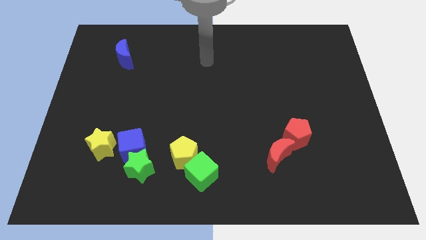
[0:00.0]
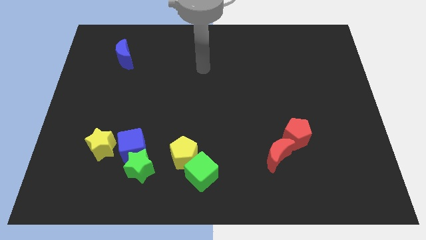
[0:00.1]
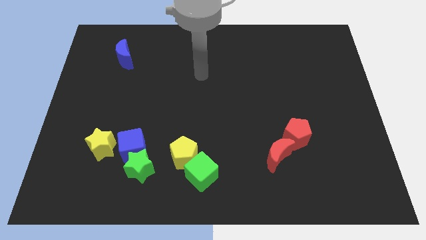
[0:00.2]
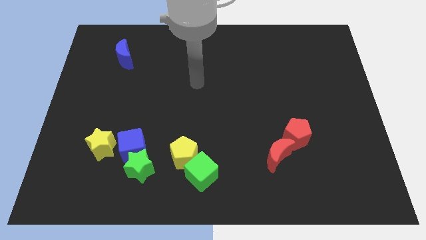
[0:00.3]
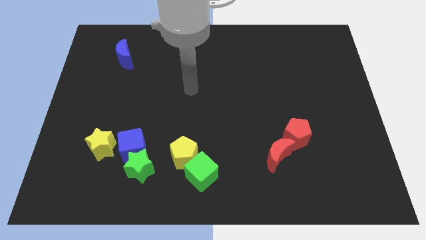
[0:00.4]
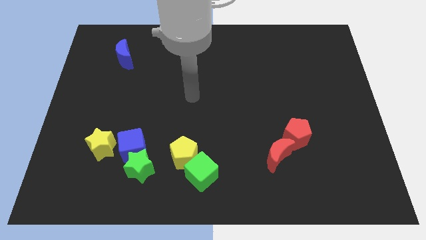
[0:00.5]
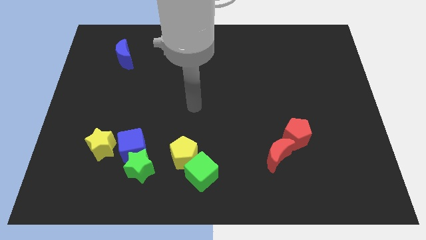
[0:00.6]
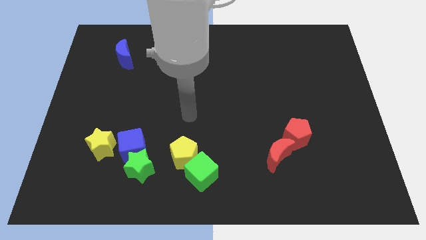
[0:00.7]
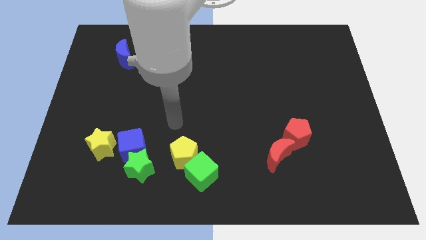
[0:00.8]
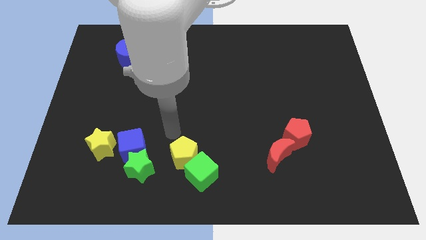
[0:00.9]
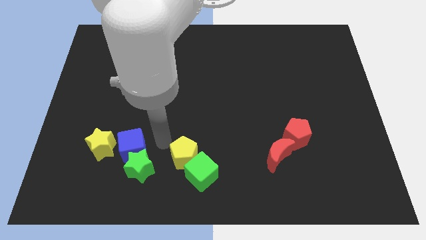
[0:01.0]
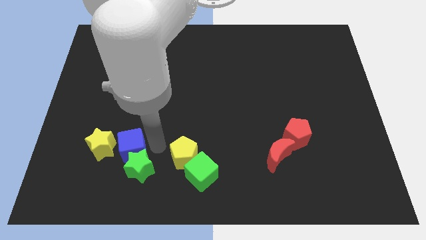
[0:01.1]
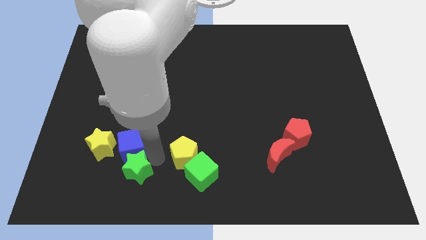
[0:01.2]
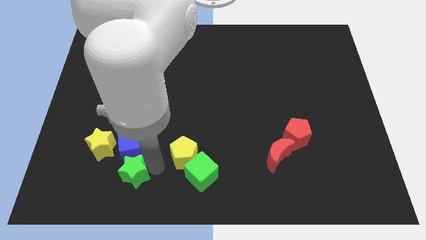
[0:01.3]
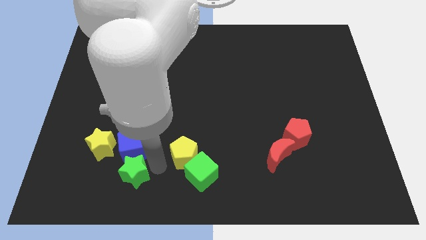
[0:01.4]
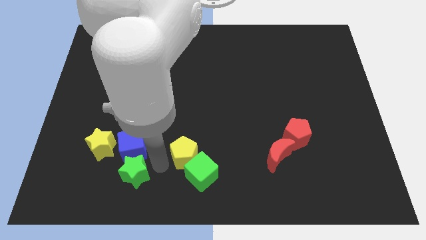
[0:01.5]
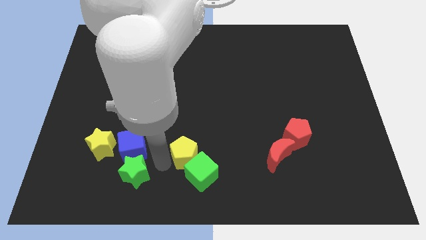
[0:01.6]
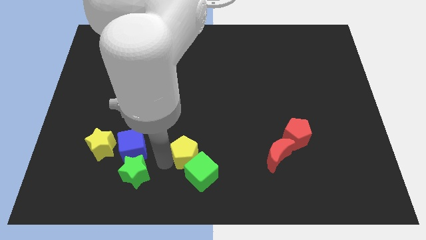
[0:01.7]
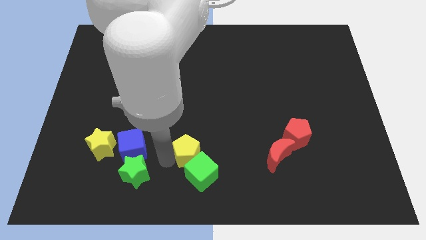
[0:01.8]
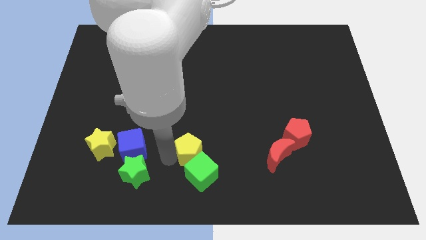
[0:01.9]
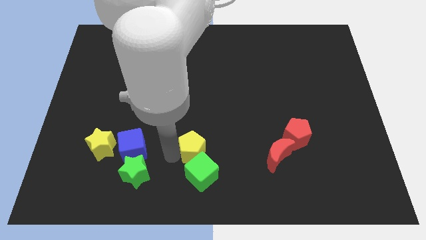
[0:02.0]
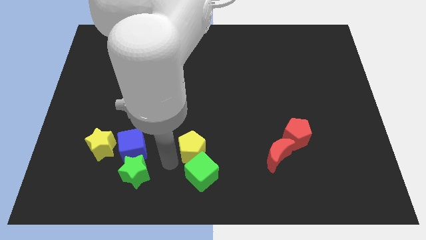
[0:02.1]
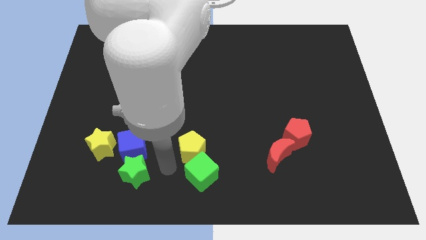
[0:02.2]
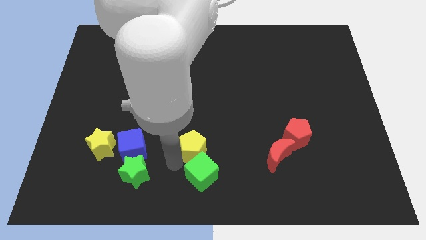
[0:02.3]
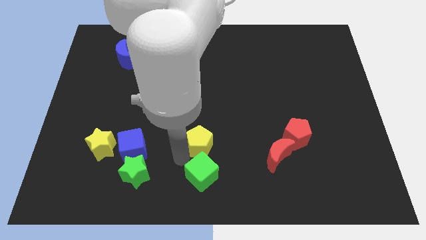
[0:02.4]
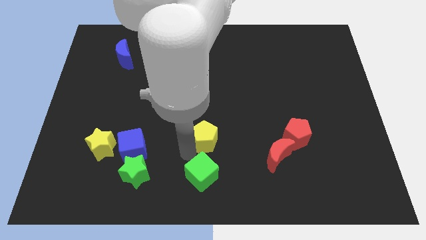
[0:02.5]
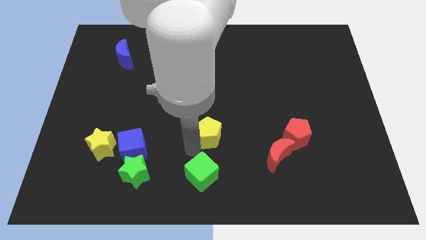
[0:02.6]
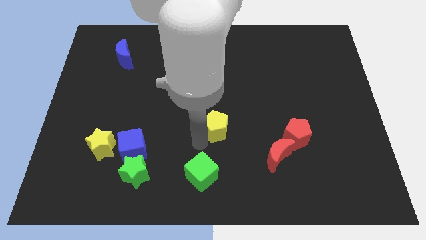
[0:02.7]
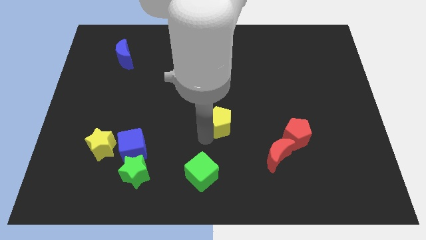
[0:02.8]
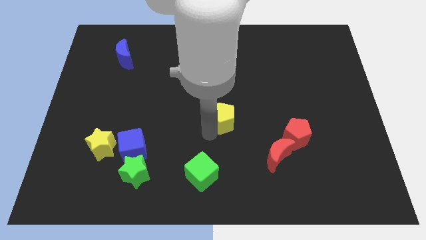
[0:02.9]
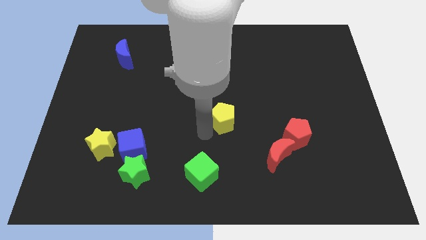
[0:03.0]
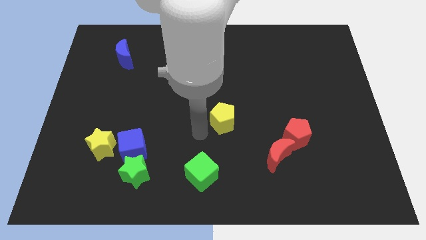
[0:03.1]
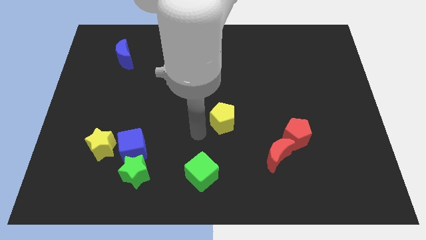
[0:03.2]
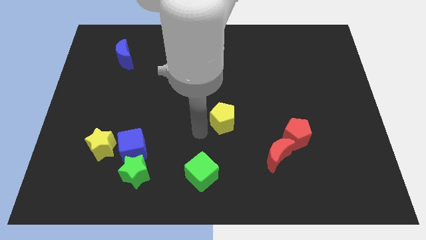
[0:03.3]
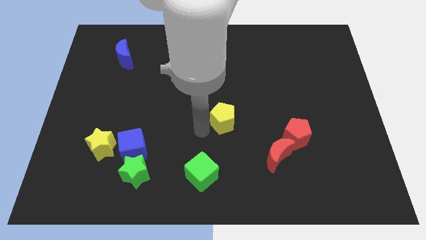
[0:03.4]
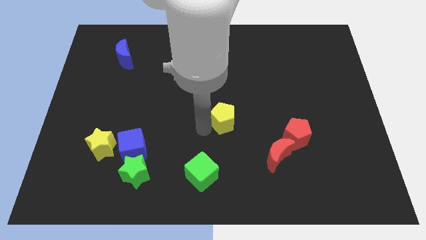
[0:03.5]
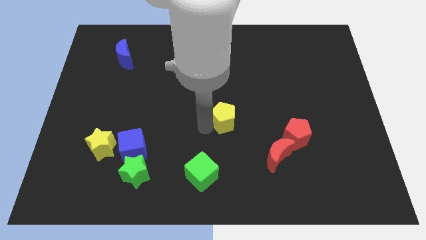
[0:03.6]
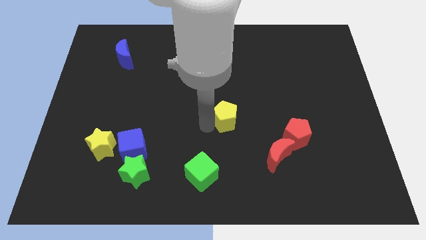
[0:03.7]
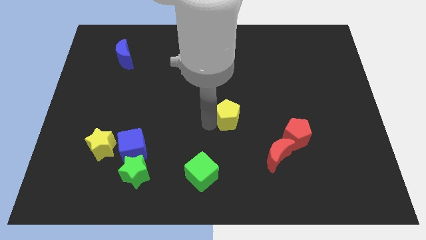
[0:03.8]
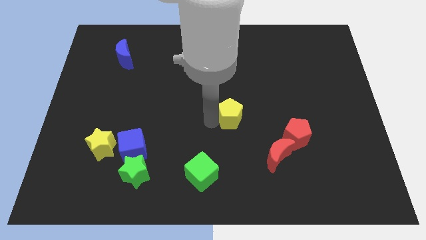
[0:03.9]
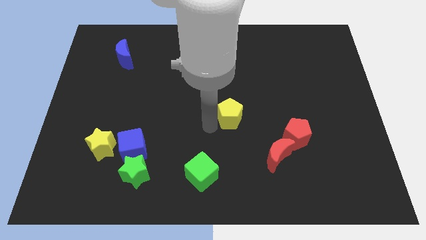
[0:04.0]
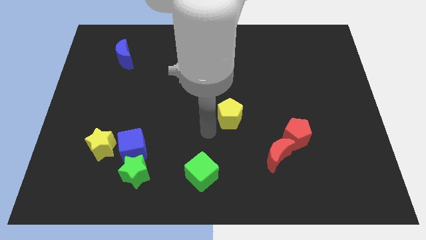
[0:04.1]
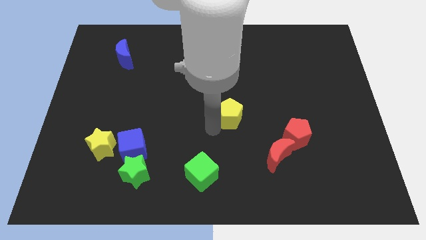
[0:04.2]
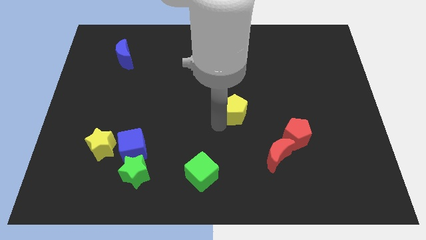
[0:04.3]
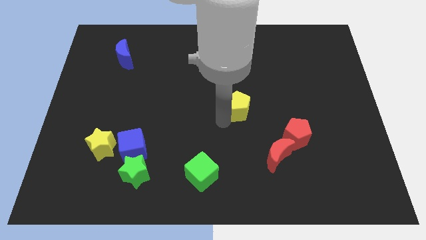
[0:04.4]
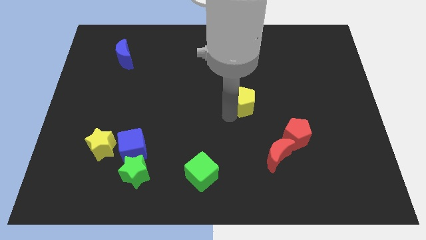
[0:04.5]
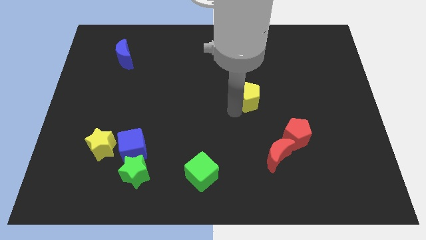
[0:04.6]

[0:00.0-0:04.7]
push the yellow pentagon up and then right

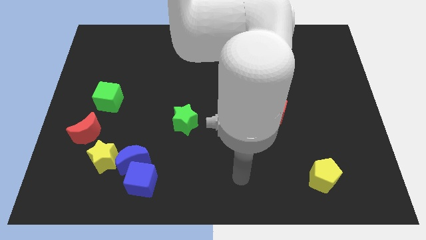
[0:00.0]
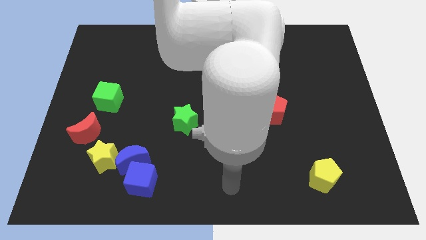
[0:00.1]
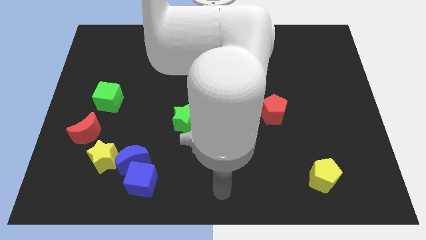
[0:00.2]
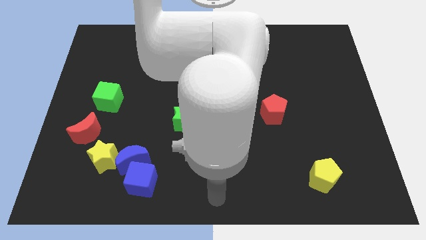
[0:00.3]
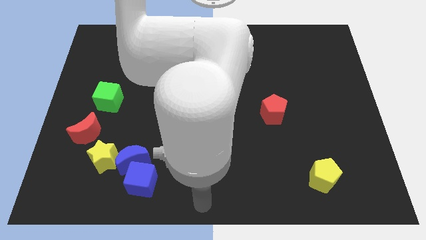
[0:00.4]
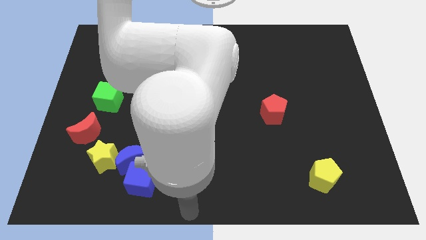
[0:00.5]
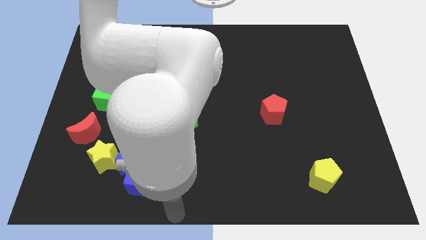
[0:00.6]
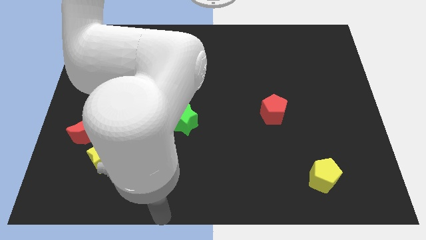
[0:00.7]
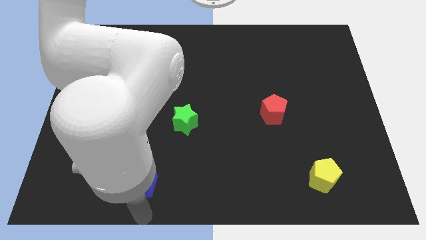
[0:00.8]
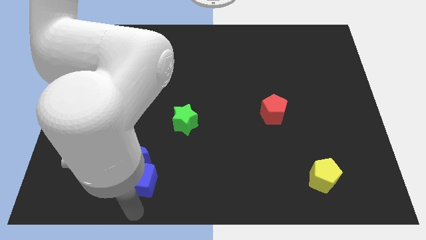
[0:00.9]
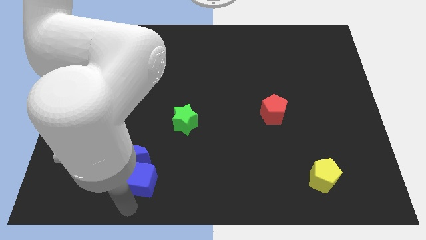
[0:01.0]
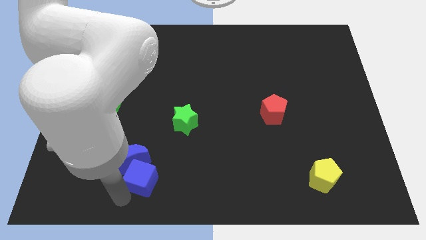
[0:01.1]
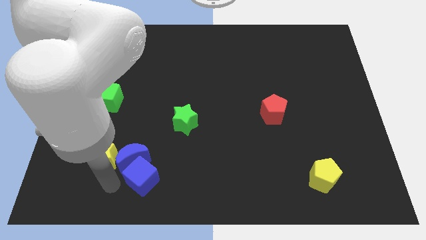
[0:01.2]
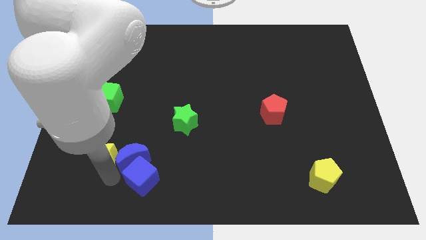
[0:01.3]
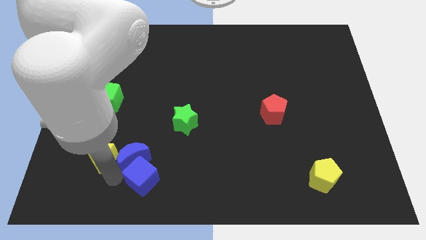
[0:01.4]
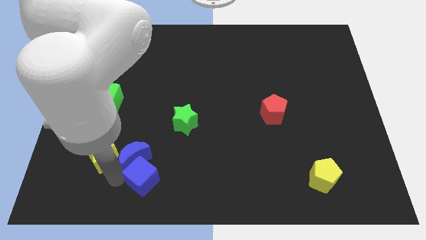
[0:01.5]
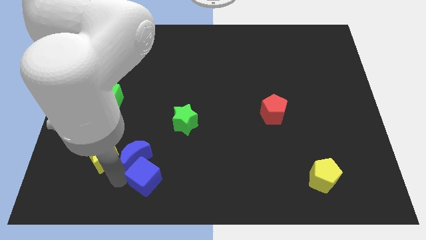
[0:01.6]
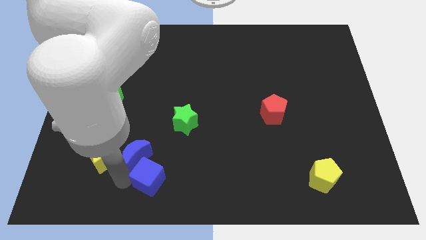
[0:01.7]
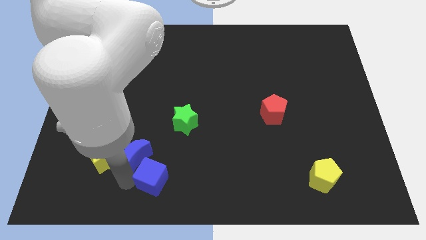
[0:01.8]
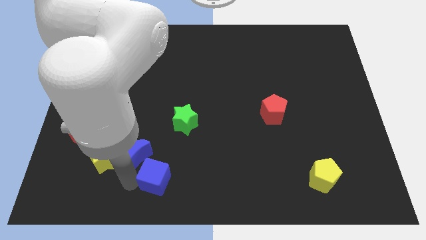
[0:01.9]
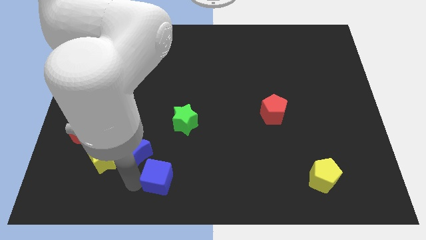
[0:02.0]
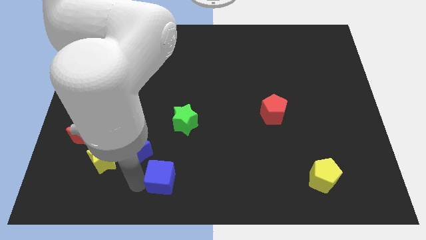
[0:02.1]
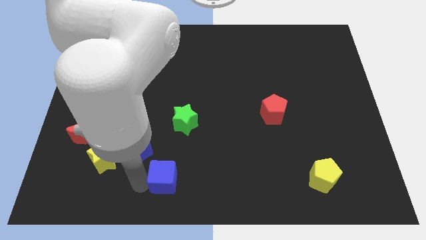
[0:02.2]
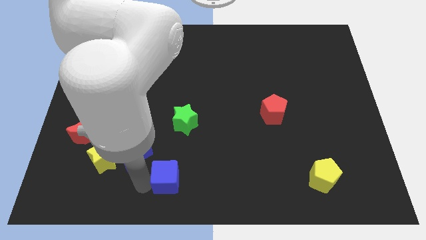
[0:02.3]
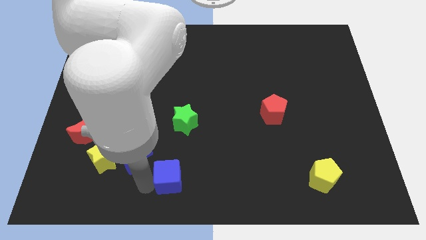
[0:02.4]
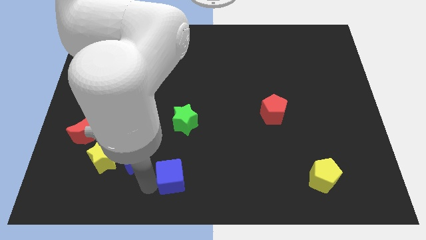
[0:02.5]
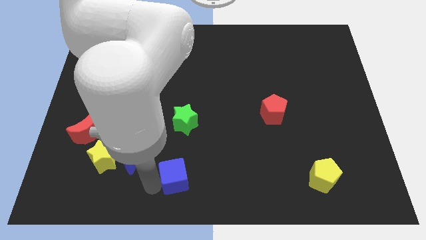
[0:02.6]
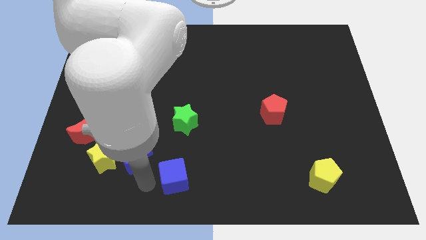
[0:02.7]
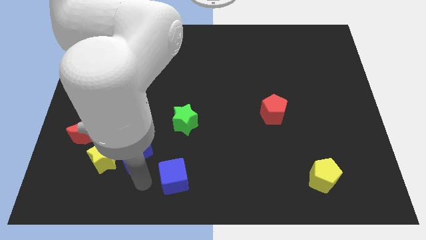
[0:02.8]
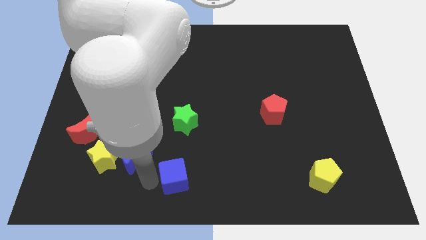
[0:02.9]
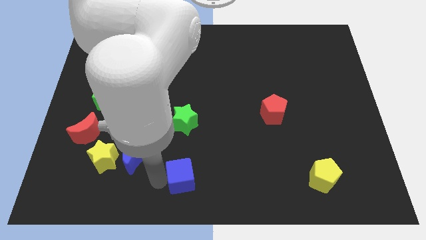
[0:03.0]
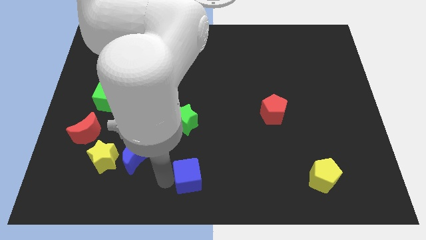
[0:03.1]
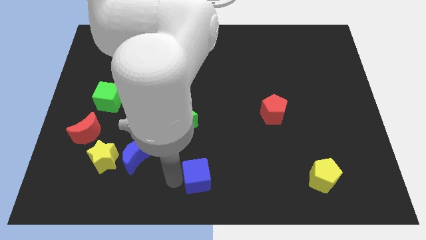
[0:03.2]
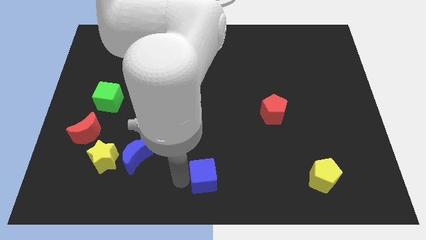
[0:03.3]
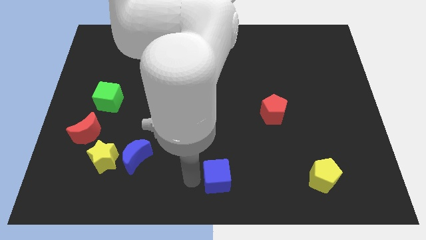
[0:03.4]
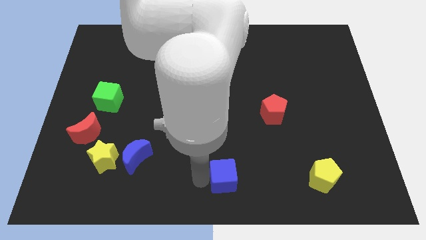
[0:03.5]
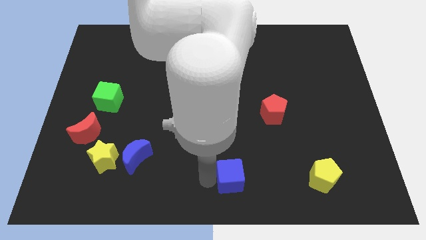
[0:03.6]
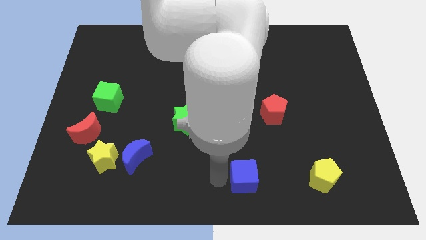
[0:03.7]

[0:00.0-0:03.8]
push the blue cube to the right
